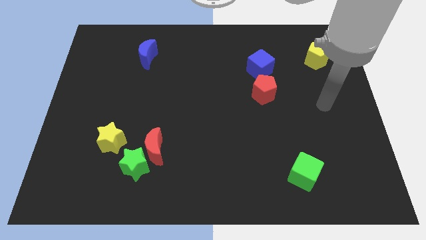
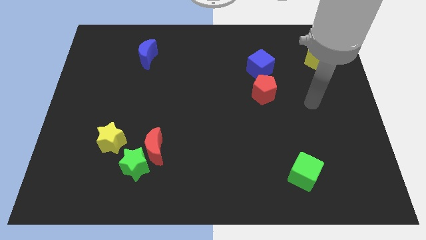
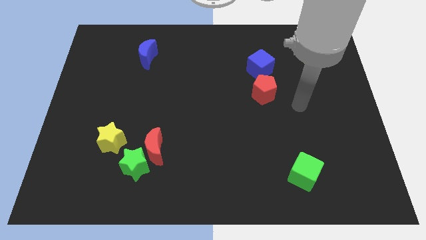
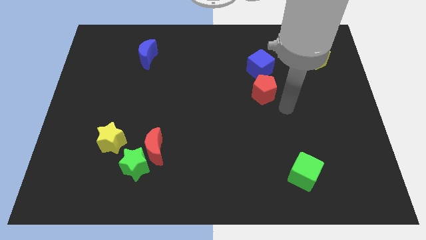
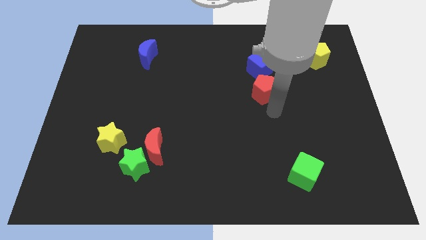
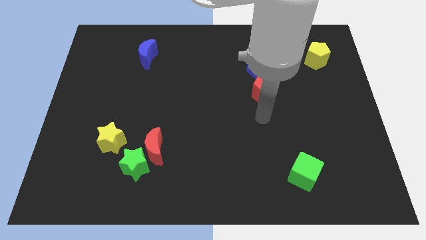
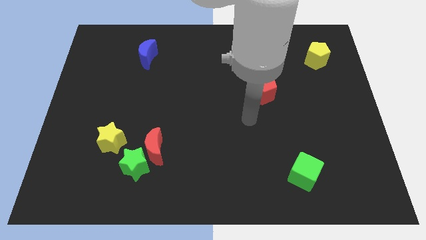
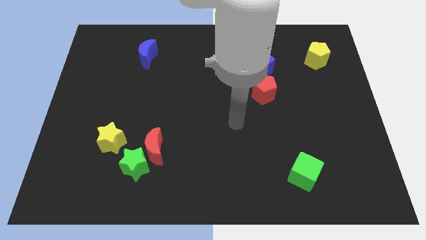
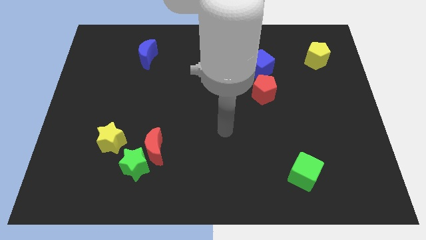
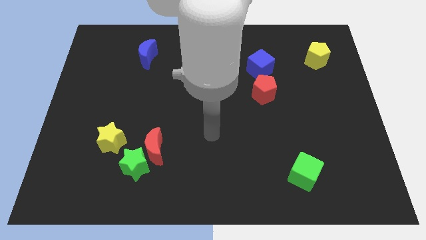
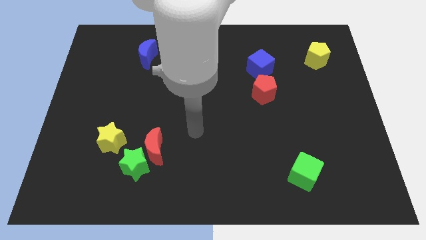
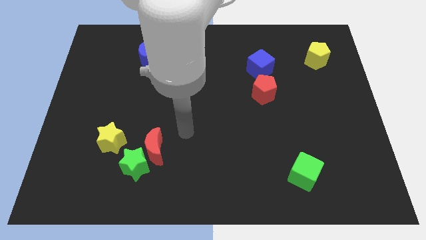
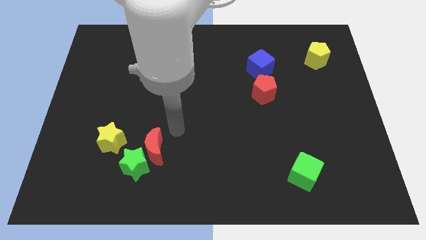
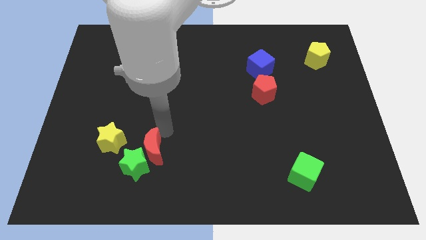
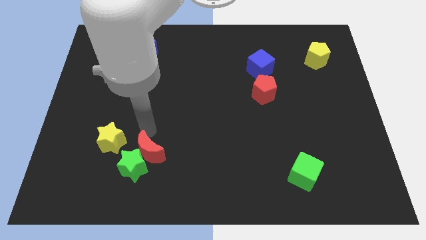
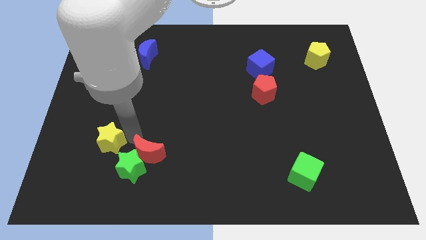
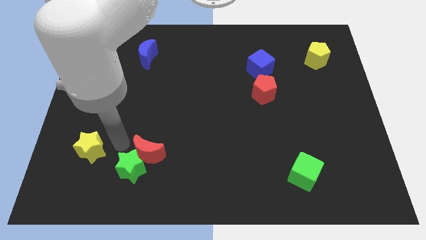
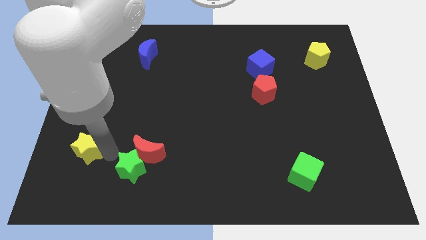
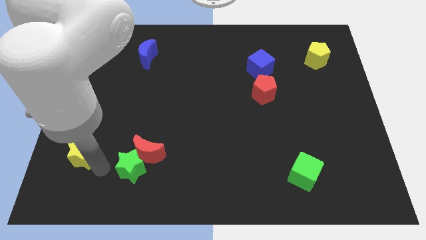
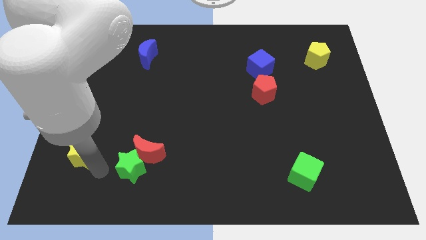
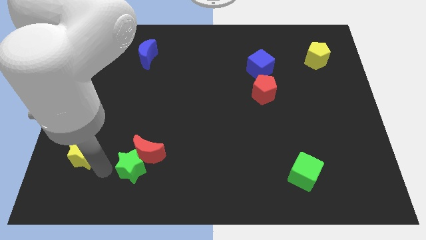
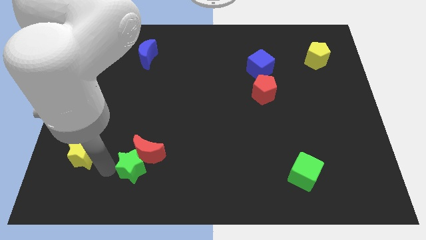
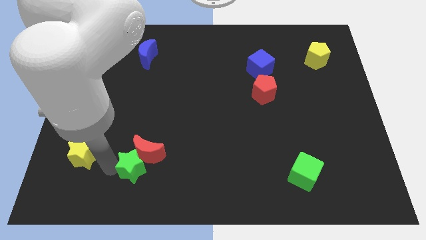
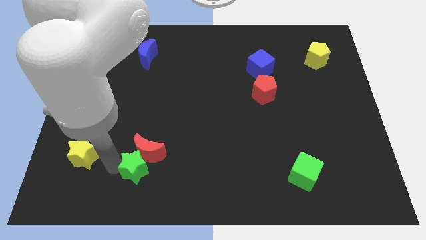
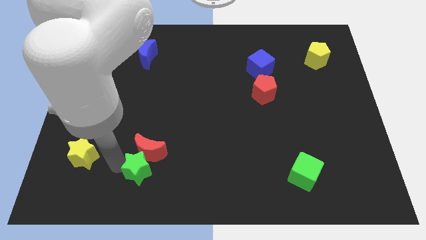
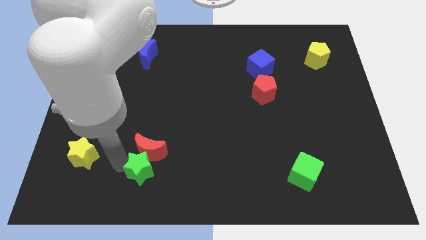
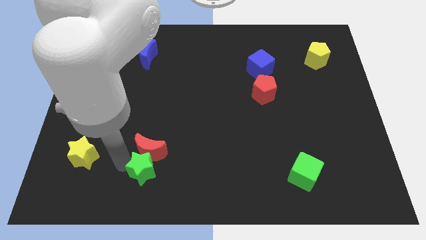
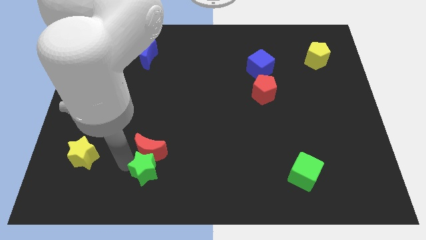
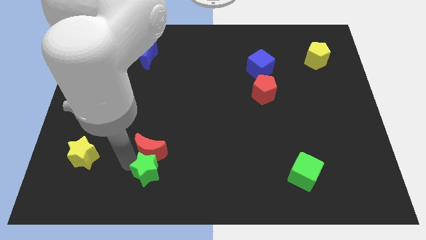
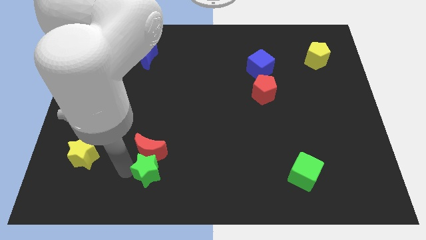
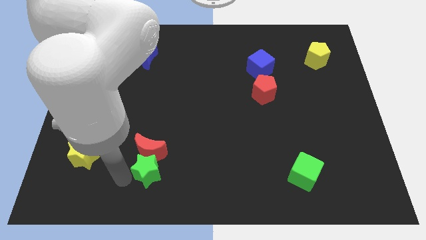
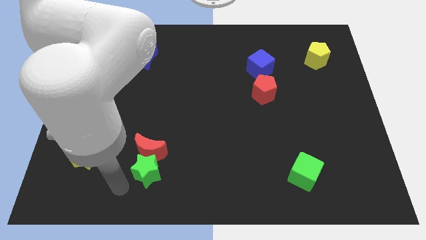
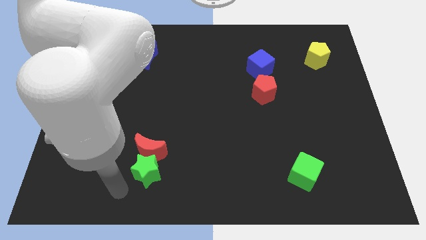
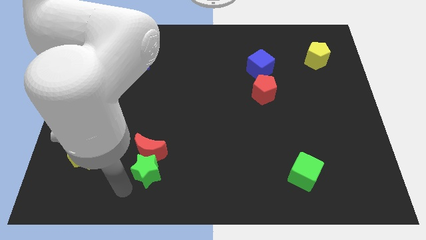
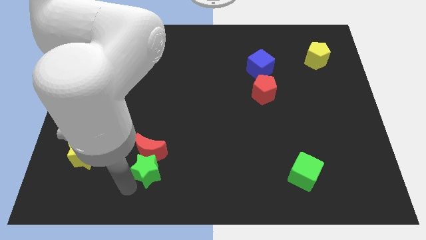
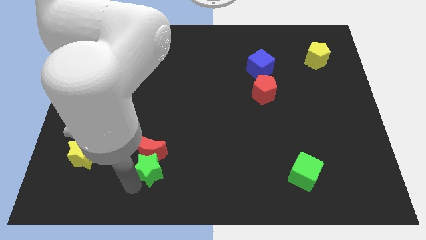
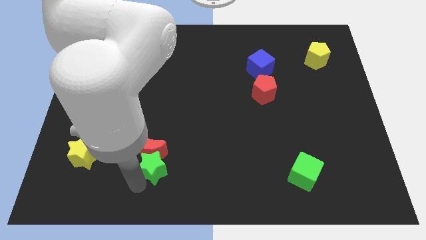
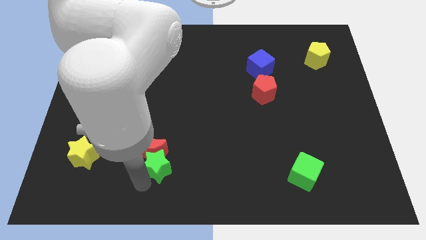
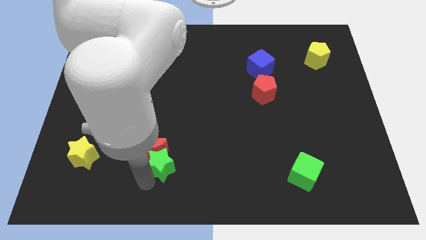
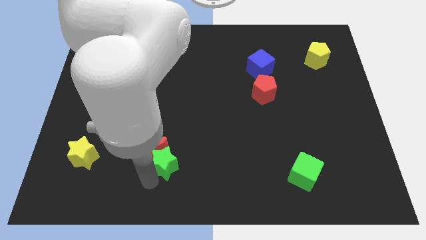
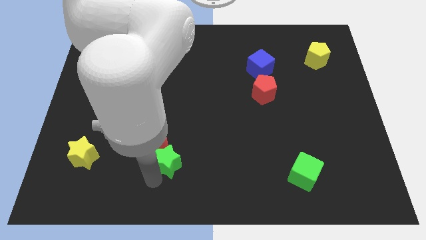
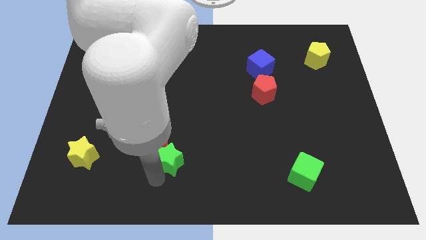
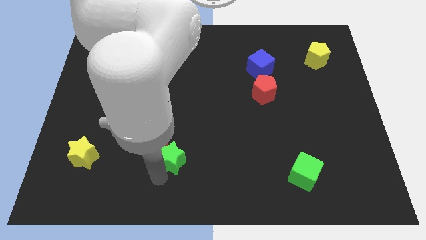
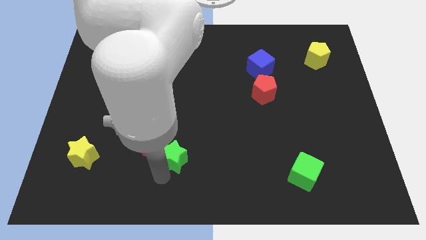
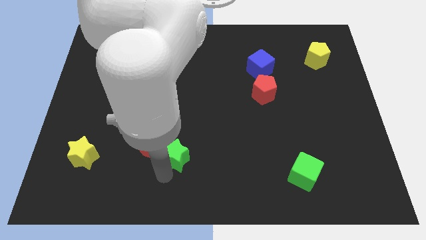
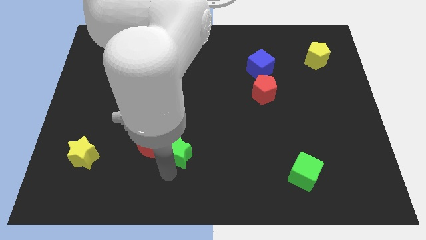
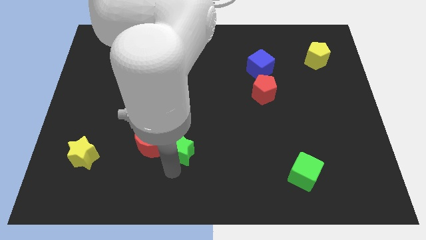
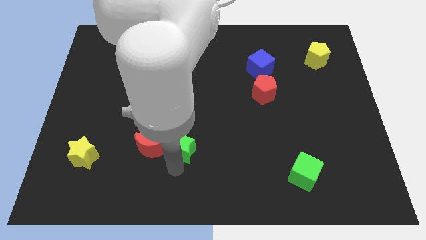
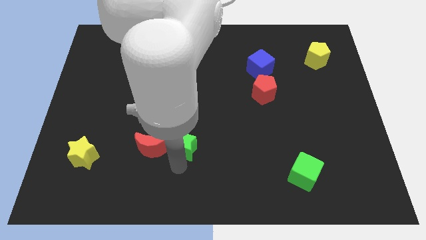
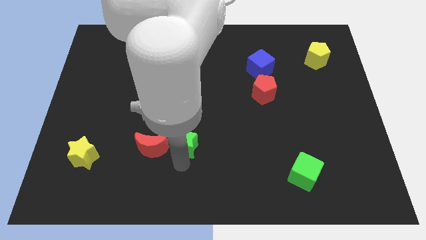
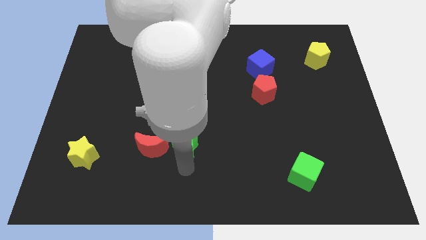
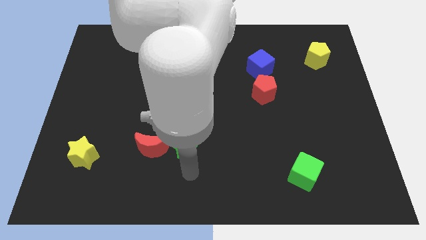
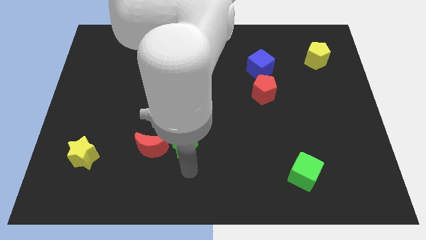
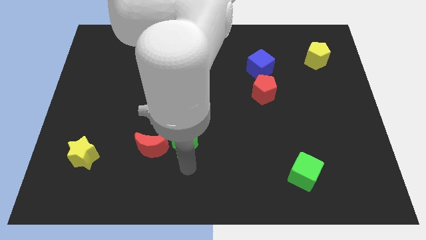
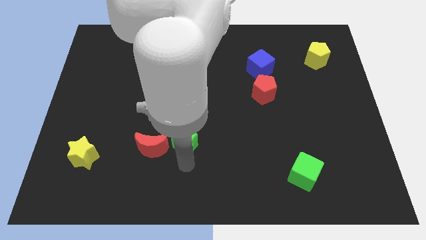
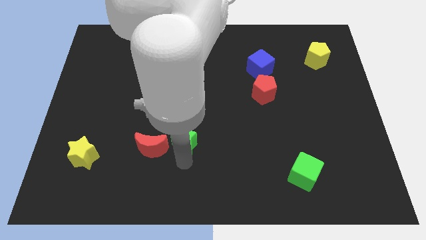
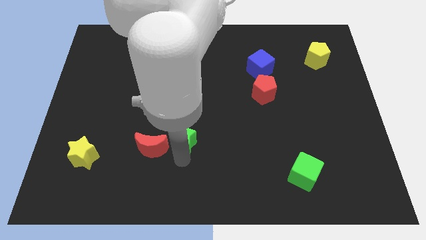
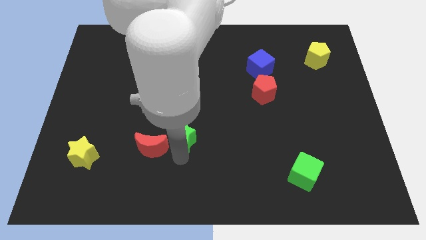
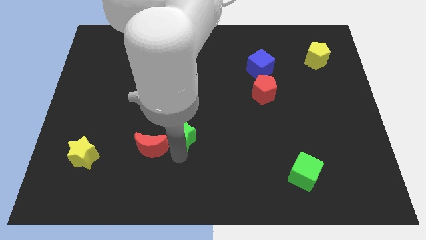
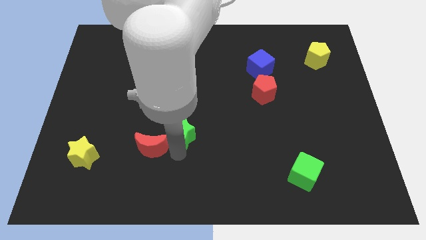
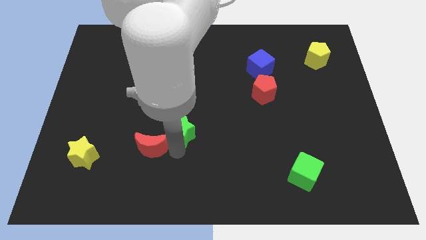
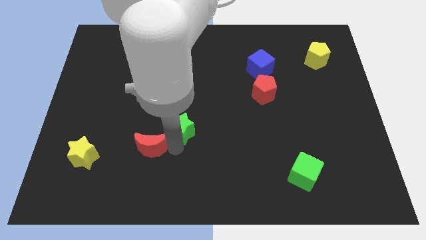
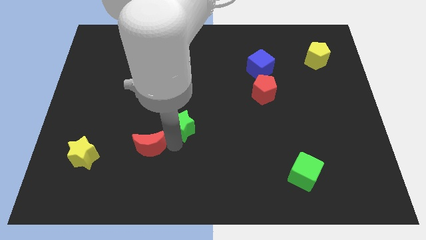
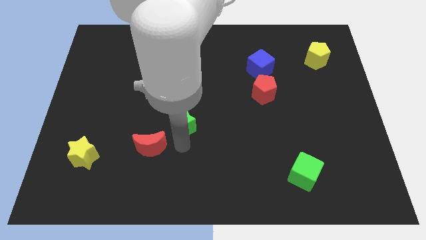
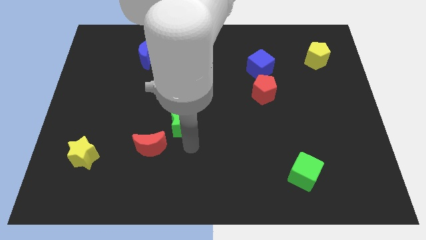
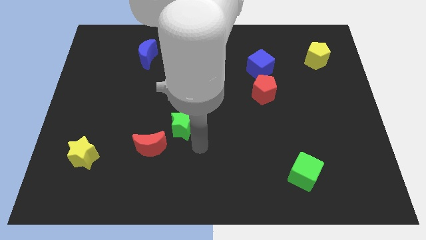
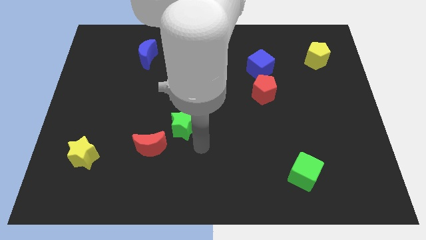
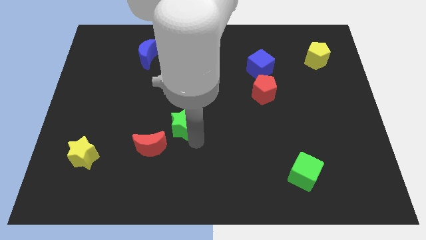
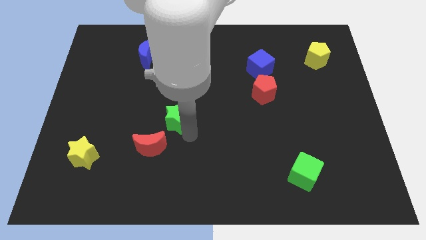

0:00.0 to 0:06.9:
push the green star up a little

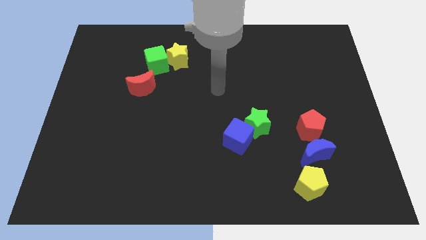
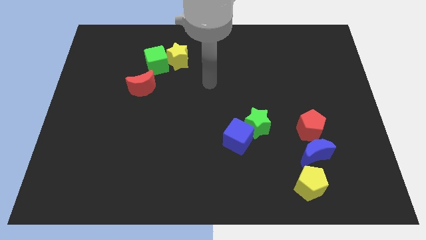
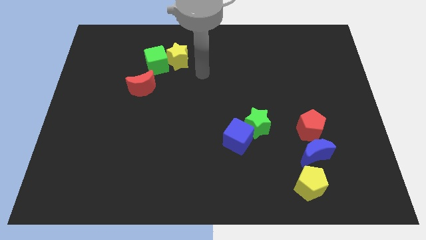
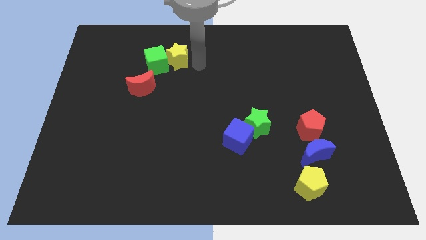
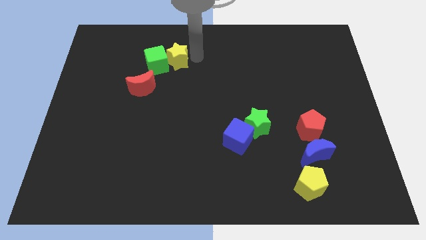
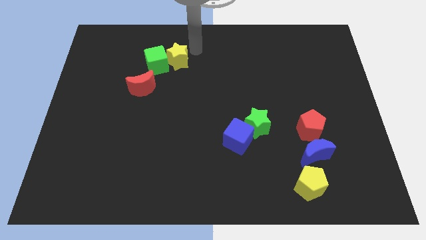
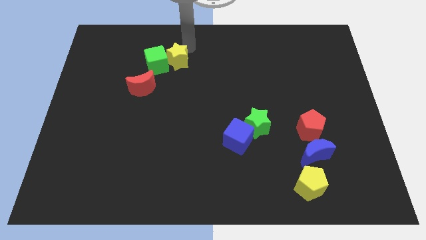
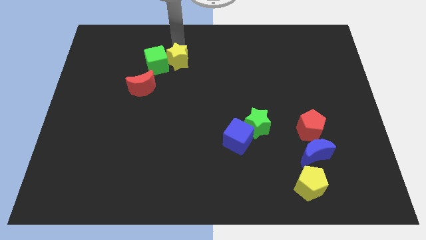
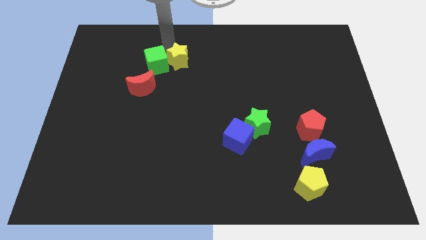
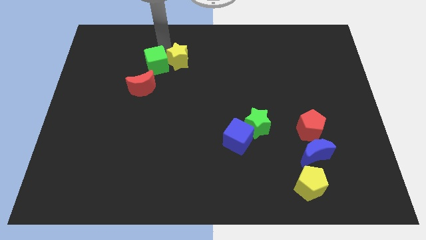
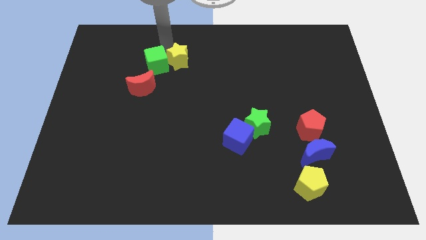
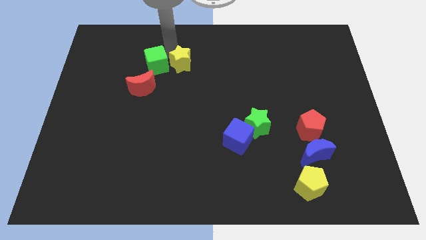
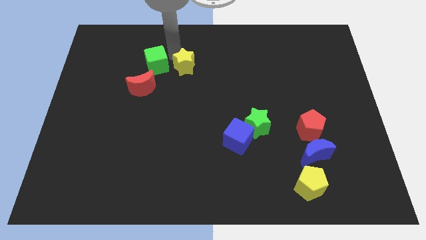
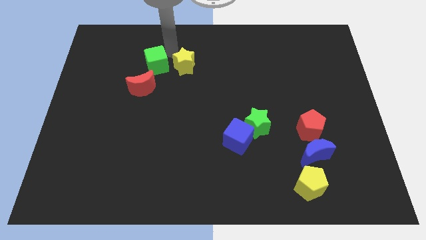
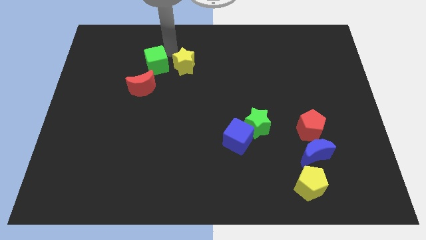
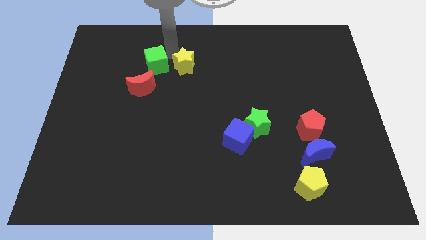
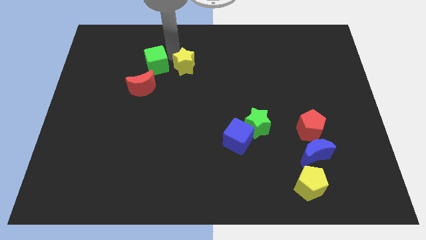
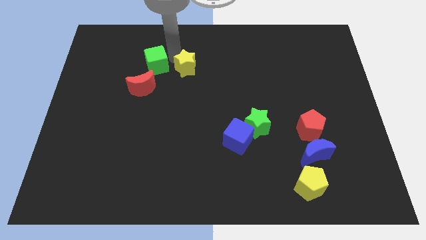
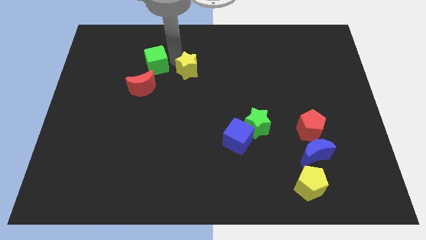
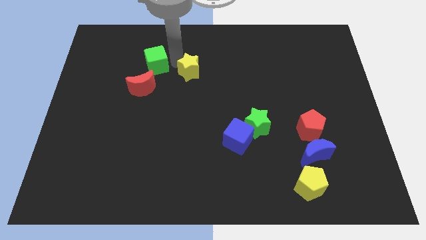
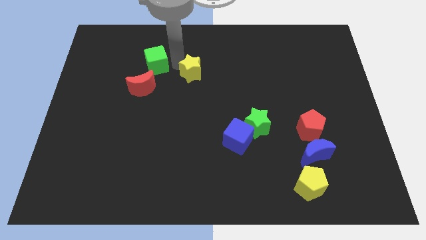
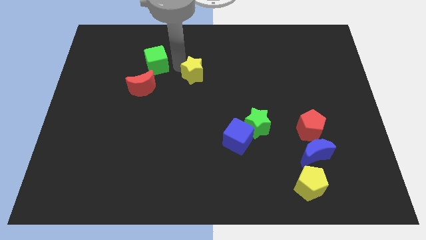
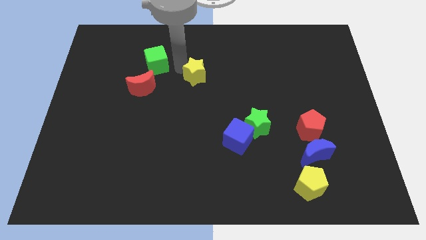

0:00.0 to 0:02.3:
slightly move the yellow star downwards and then to the right
